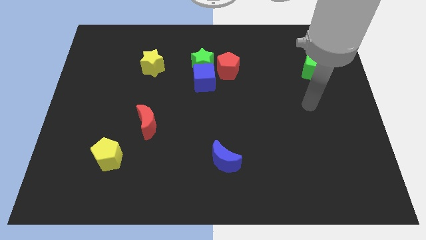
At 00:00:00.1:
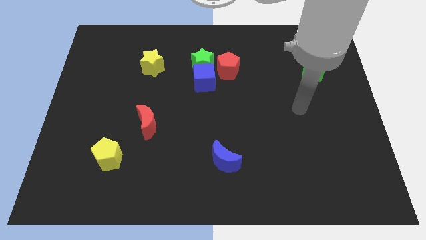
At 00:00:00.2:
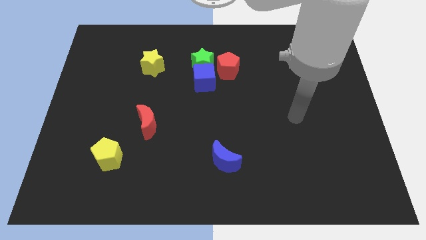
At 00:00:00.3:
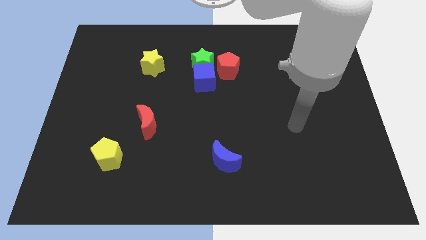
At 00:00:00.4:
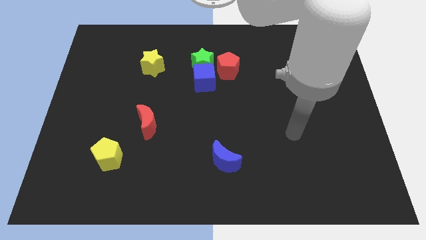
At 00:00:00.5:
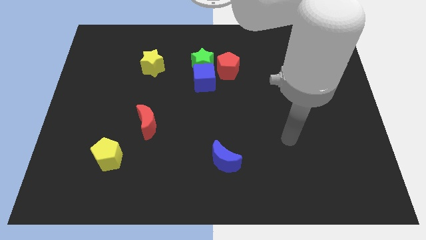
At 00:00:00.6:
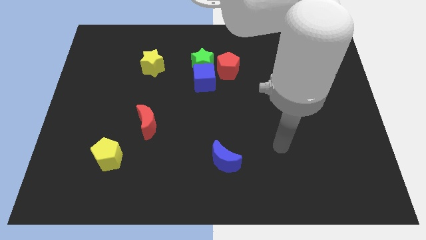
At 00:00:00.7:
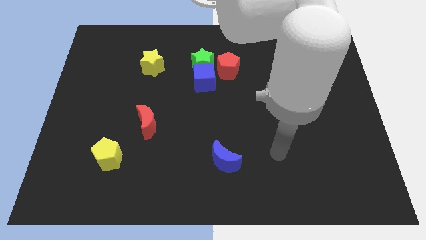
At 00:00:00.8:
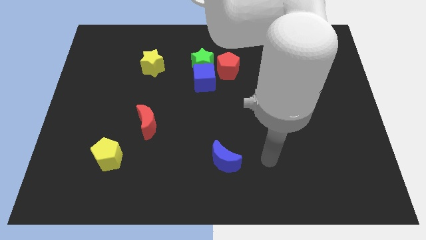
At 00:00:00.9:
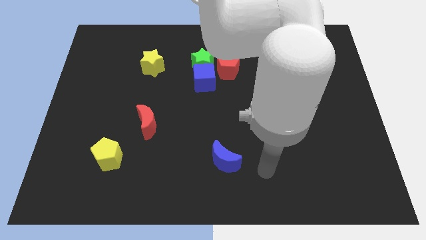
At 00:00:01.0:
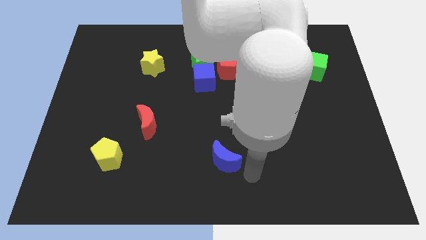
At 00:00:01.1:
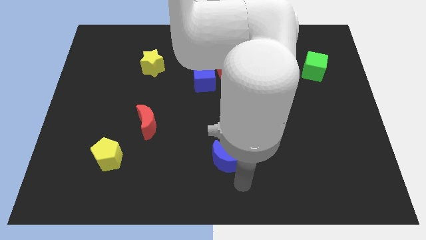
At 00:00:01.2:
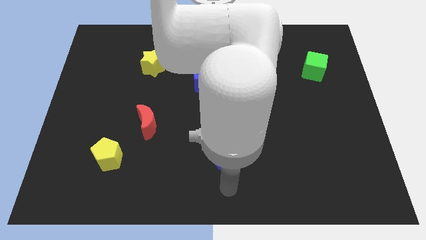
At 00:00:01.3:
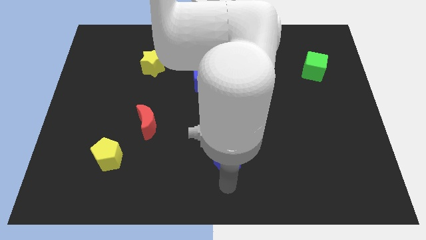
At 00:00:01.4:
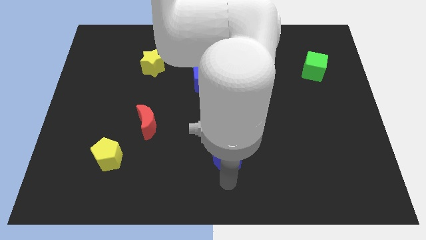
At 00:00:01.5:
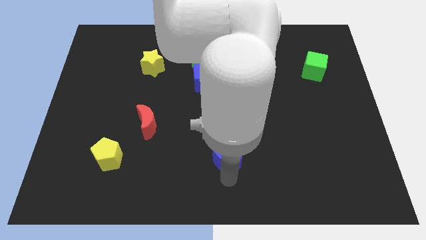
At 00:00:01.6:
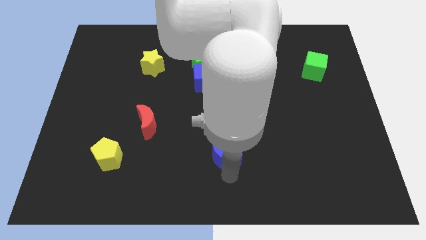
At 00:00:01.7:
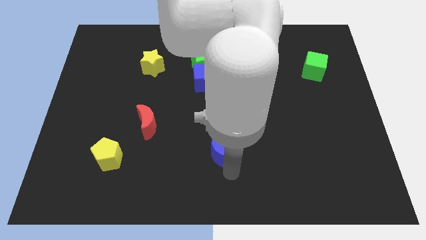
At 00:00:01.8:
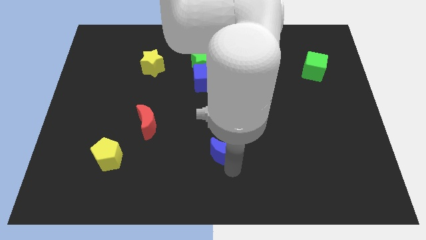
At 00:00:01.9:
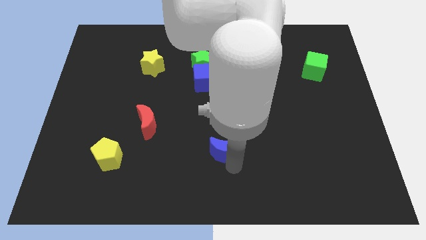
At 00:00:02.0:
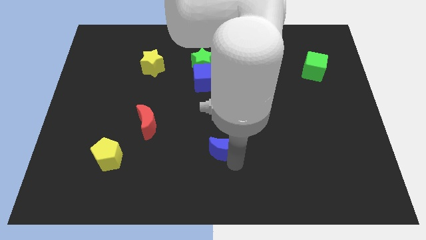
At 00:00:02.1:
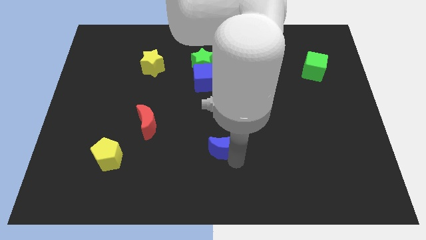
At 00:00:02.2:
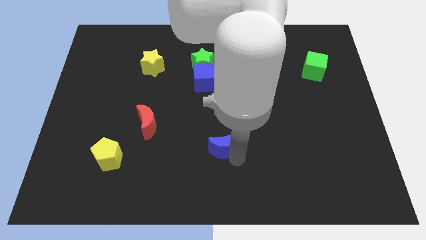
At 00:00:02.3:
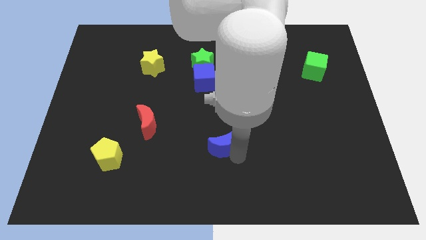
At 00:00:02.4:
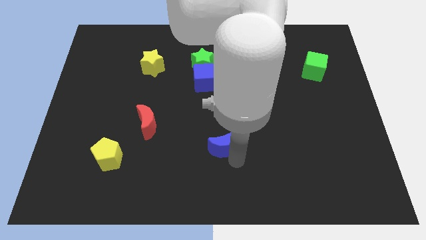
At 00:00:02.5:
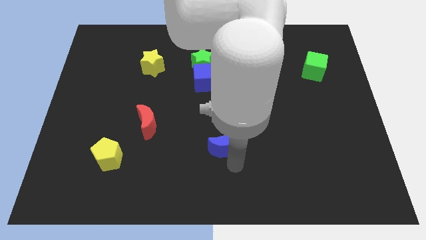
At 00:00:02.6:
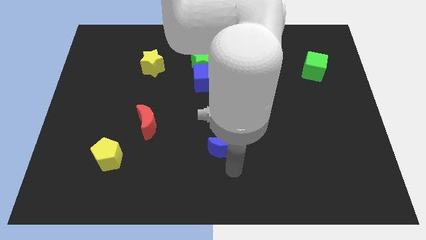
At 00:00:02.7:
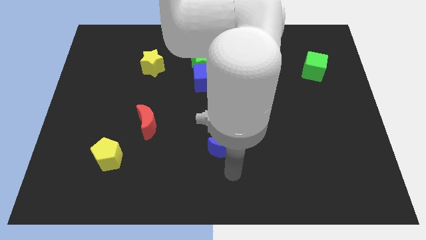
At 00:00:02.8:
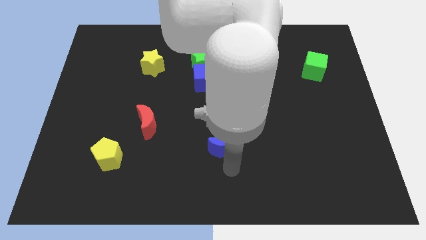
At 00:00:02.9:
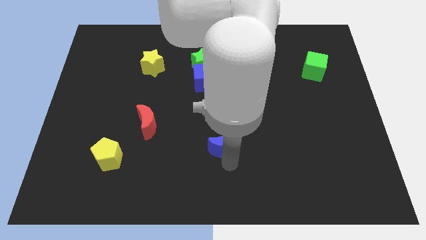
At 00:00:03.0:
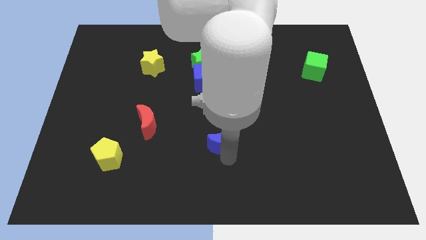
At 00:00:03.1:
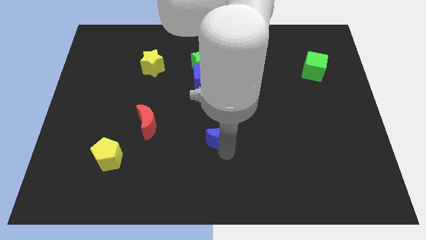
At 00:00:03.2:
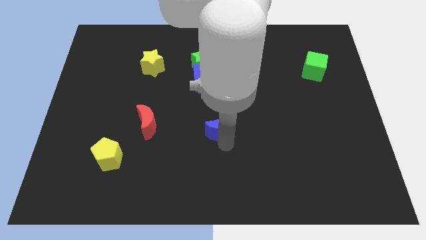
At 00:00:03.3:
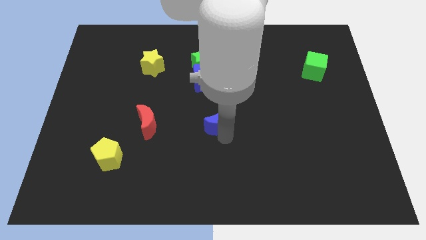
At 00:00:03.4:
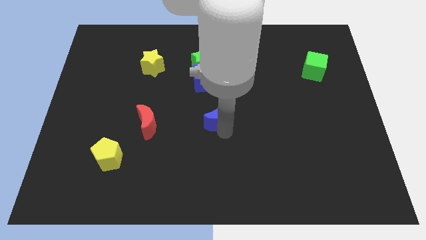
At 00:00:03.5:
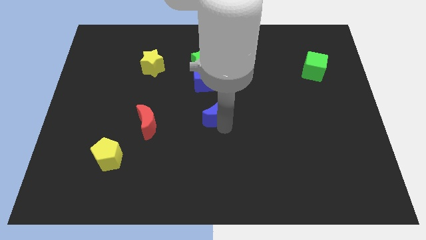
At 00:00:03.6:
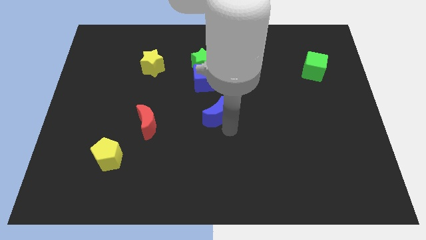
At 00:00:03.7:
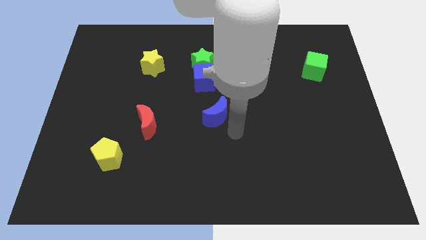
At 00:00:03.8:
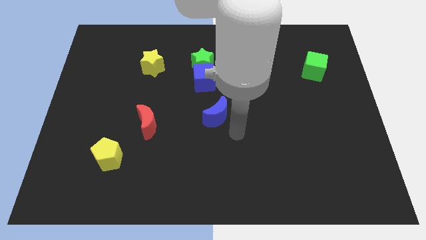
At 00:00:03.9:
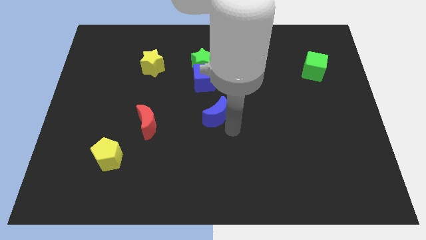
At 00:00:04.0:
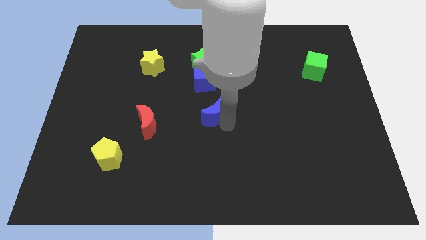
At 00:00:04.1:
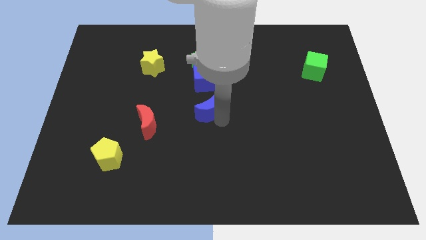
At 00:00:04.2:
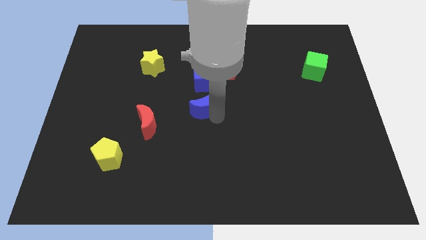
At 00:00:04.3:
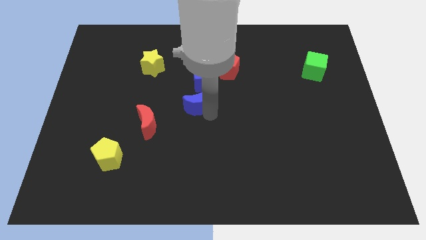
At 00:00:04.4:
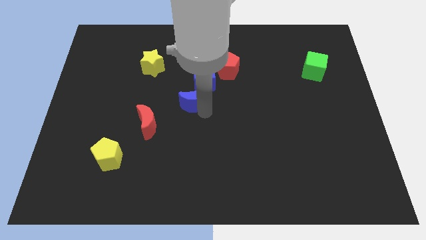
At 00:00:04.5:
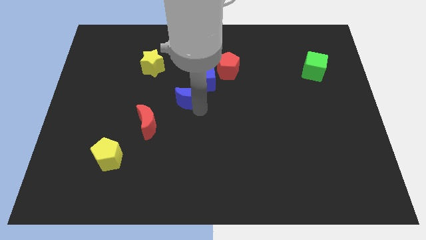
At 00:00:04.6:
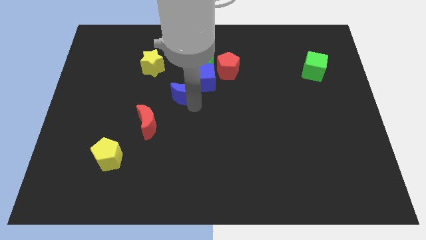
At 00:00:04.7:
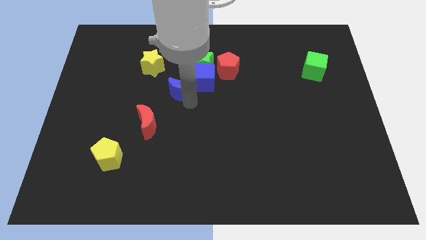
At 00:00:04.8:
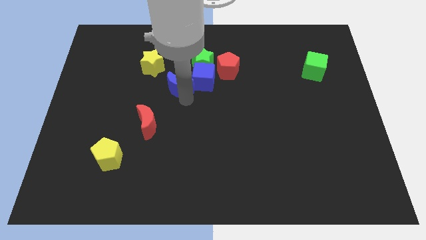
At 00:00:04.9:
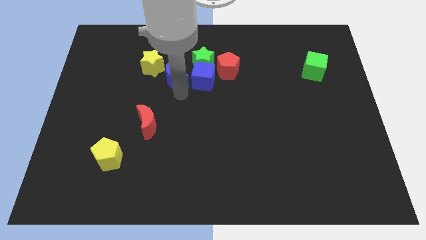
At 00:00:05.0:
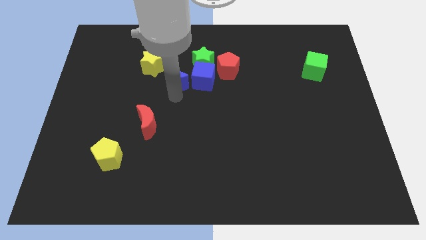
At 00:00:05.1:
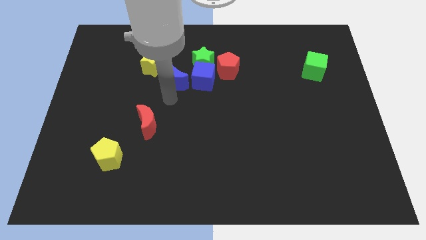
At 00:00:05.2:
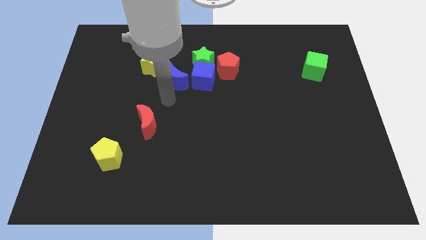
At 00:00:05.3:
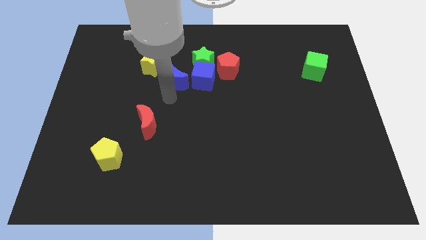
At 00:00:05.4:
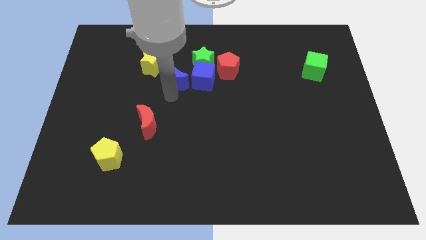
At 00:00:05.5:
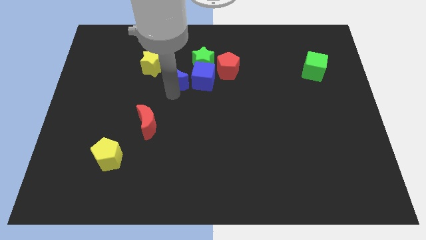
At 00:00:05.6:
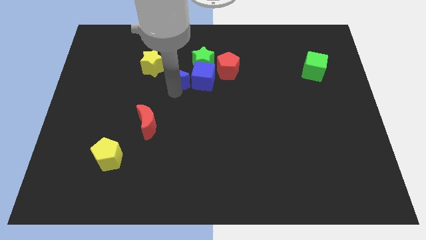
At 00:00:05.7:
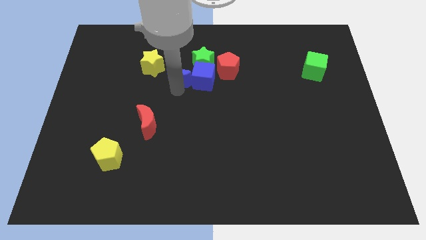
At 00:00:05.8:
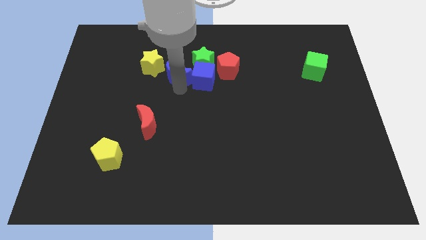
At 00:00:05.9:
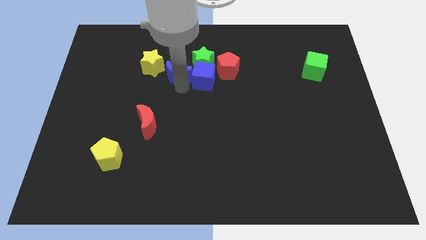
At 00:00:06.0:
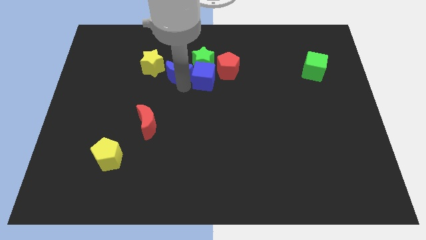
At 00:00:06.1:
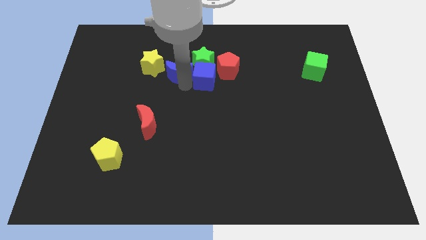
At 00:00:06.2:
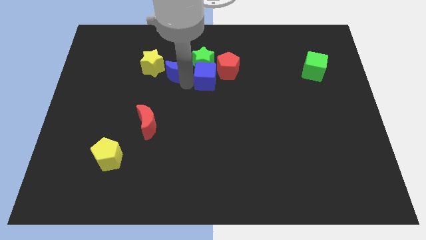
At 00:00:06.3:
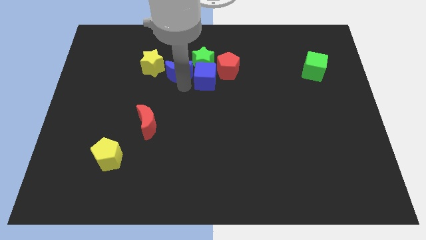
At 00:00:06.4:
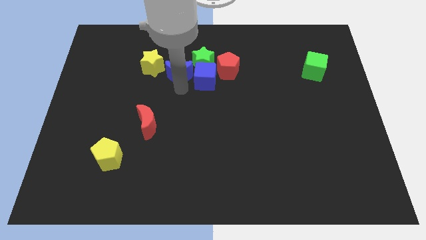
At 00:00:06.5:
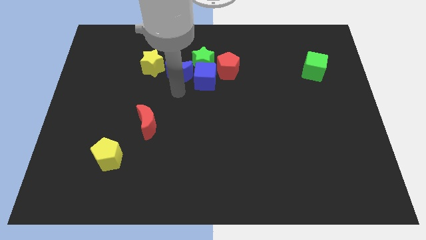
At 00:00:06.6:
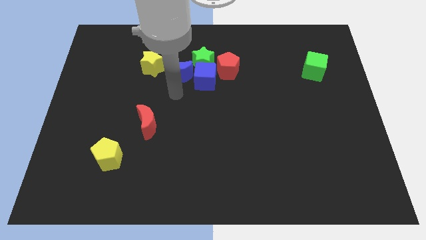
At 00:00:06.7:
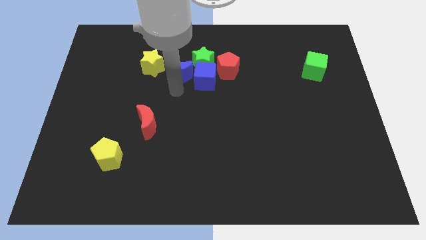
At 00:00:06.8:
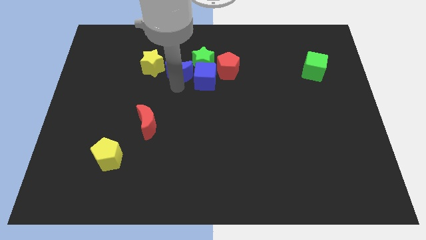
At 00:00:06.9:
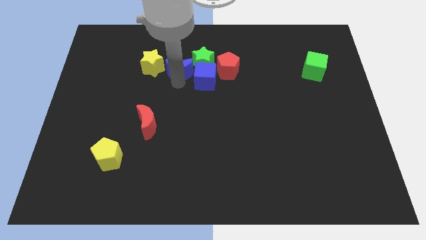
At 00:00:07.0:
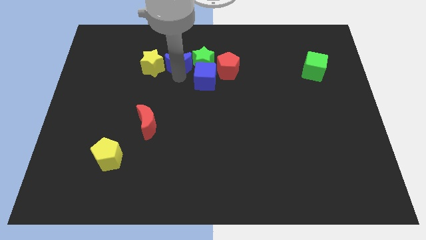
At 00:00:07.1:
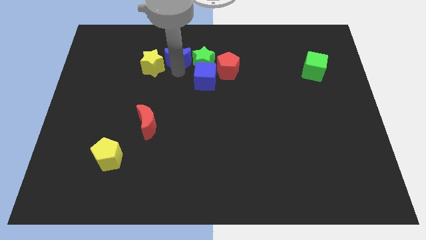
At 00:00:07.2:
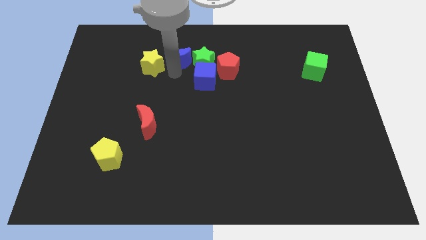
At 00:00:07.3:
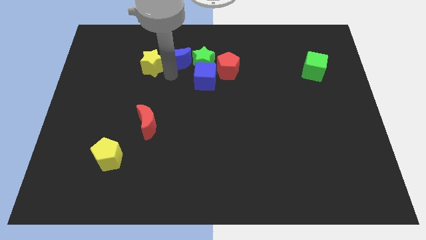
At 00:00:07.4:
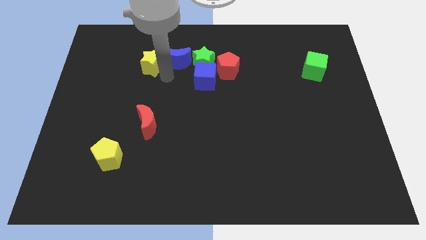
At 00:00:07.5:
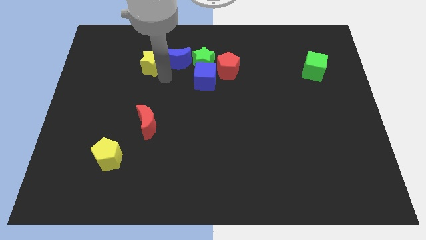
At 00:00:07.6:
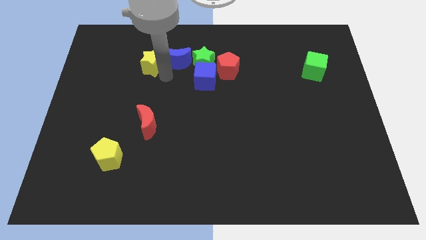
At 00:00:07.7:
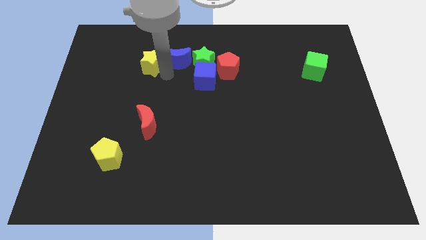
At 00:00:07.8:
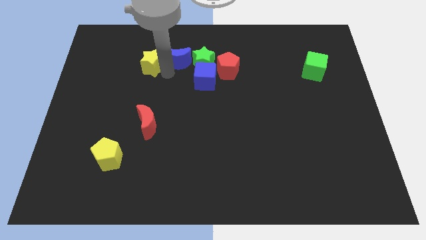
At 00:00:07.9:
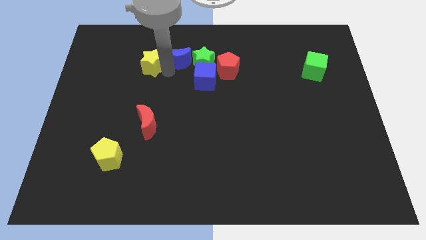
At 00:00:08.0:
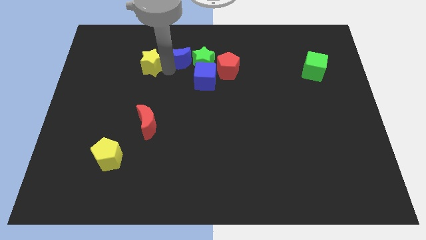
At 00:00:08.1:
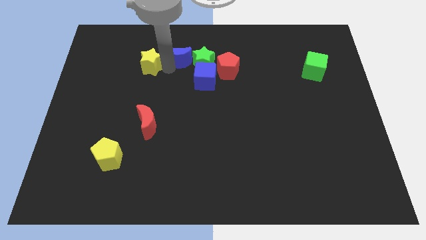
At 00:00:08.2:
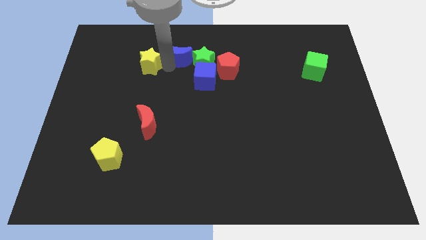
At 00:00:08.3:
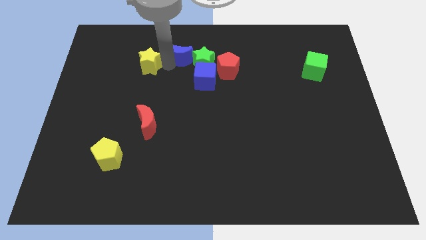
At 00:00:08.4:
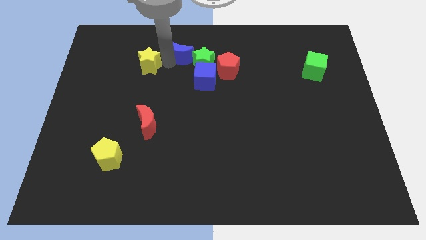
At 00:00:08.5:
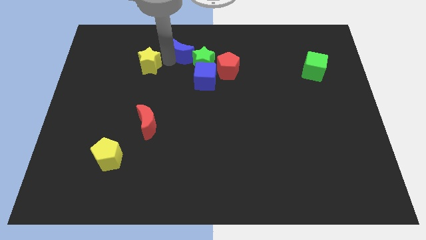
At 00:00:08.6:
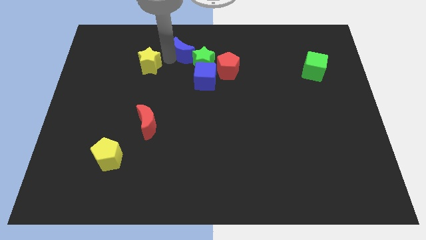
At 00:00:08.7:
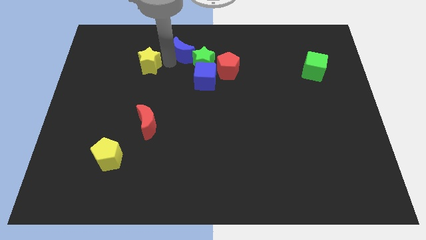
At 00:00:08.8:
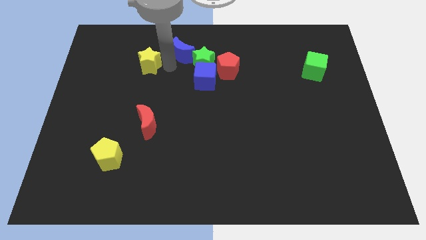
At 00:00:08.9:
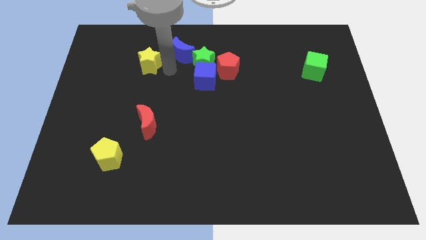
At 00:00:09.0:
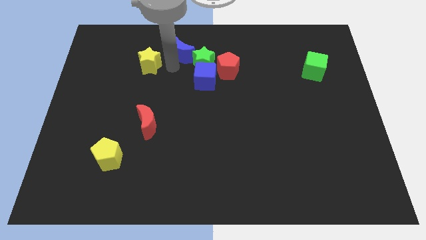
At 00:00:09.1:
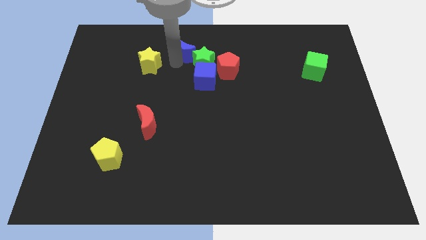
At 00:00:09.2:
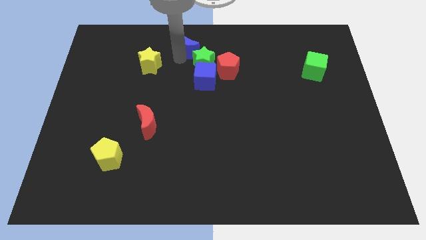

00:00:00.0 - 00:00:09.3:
put the blue moon to the towards your base
